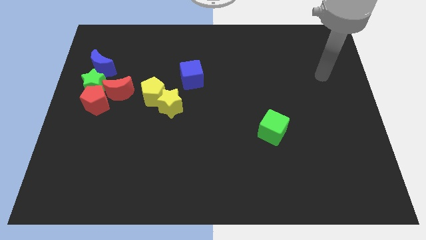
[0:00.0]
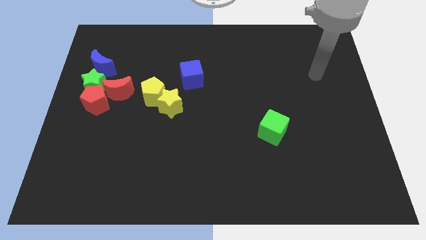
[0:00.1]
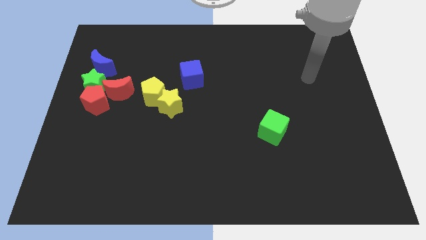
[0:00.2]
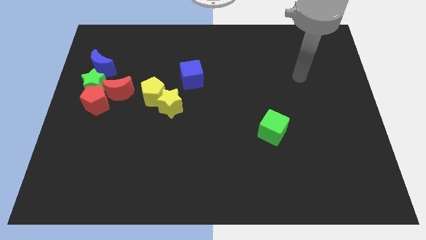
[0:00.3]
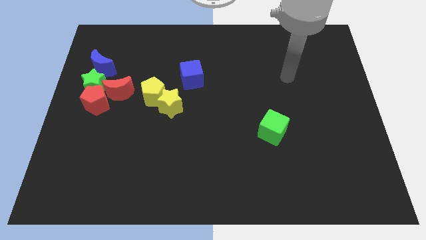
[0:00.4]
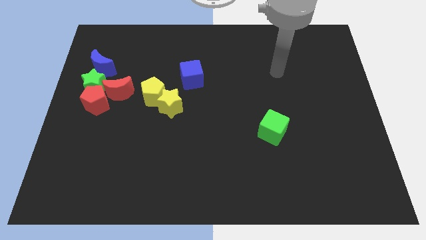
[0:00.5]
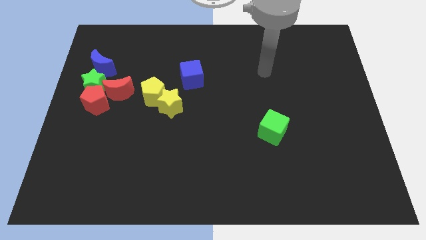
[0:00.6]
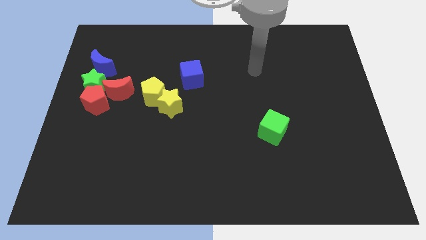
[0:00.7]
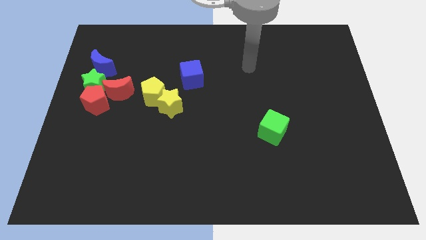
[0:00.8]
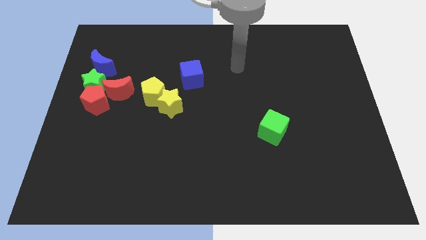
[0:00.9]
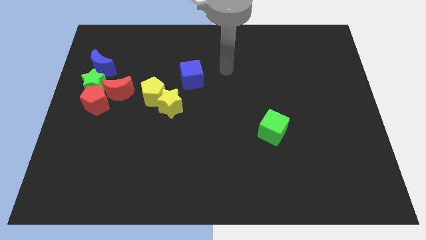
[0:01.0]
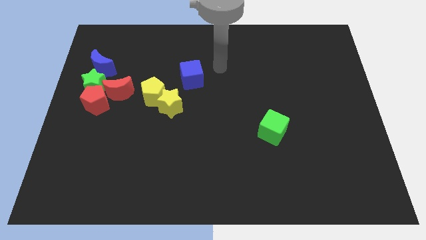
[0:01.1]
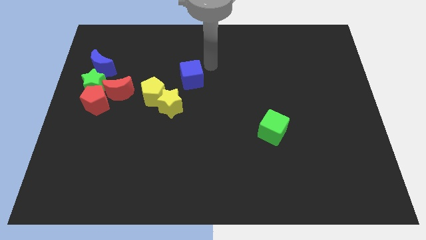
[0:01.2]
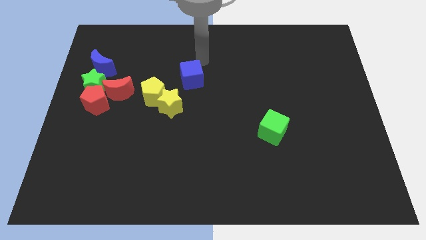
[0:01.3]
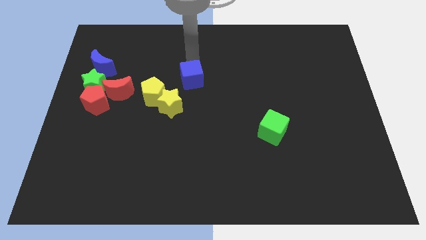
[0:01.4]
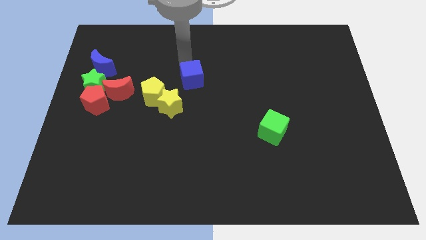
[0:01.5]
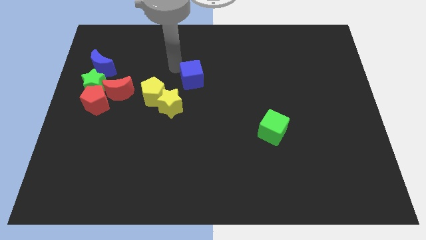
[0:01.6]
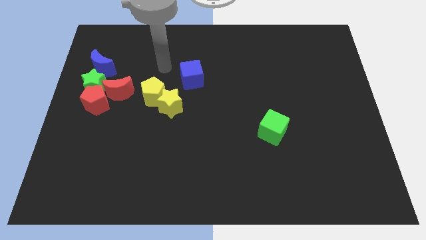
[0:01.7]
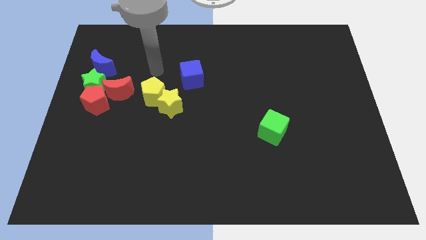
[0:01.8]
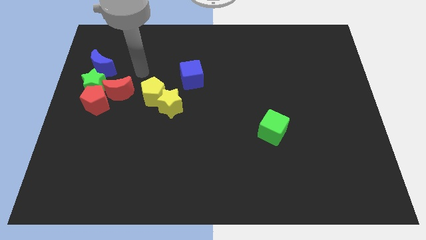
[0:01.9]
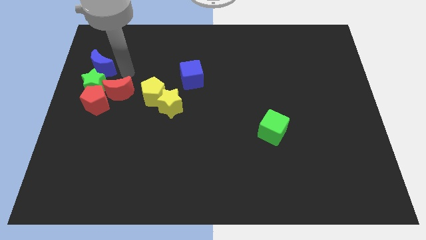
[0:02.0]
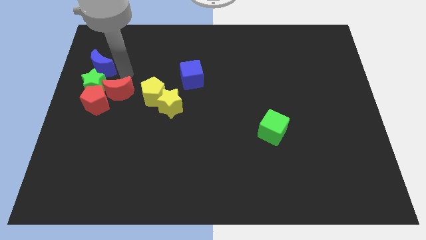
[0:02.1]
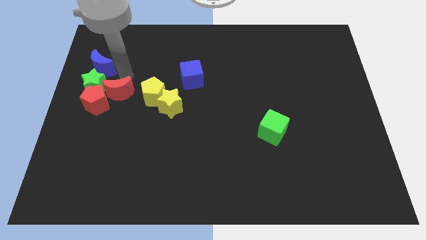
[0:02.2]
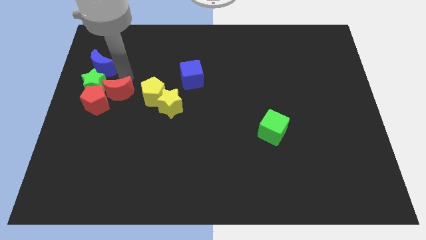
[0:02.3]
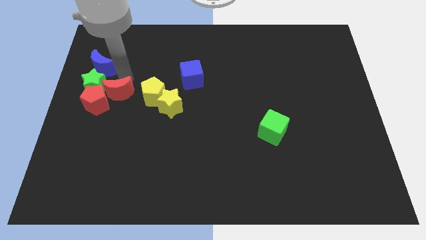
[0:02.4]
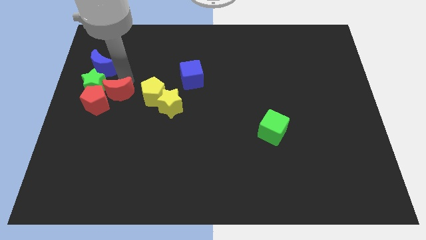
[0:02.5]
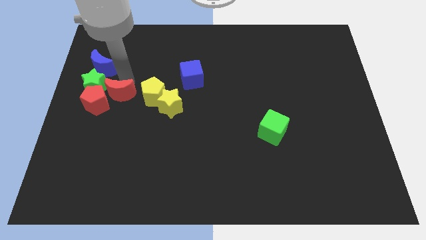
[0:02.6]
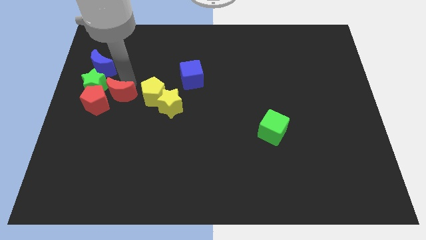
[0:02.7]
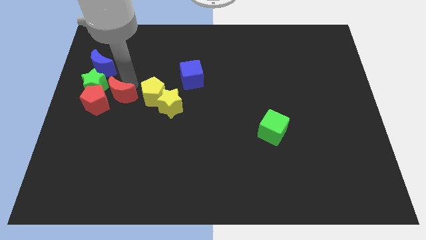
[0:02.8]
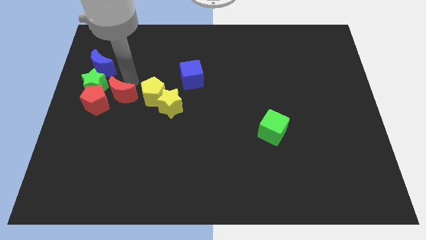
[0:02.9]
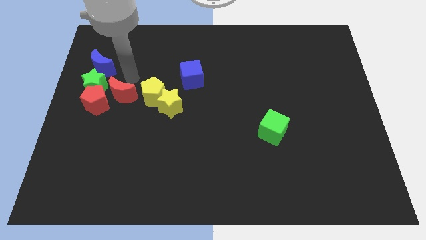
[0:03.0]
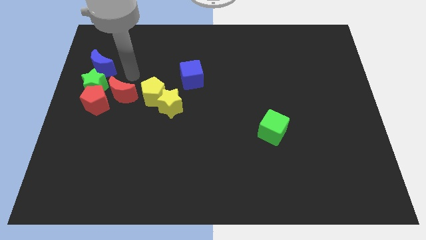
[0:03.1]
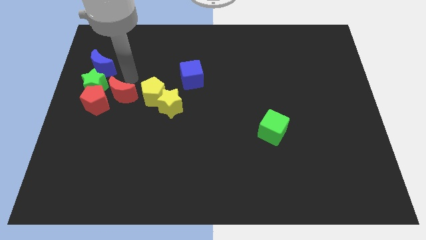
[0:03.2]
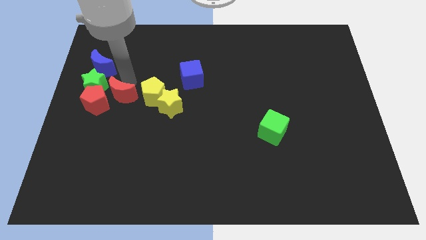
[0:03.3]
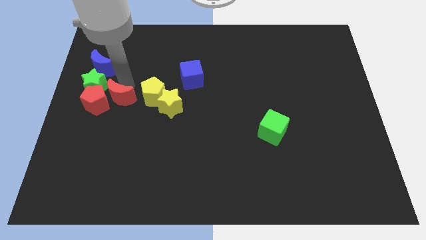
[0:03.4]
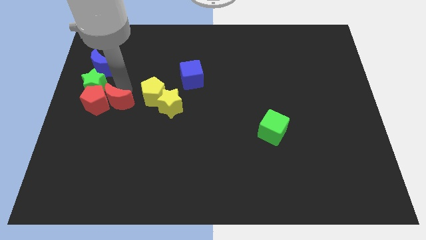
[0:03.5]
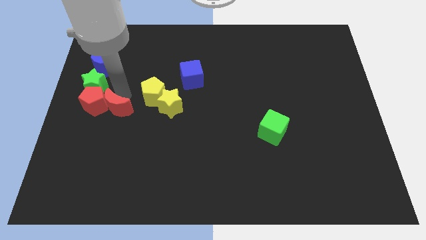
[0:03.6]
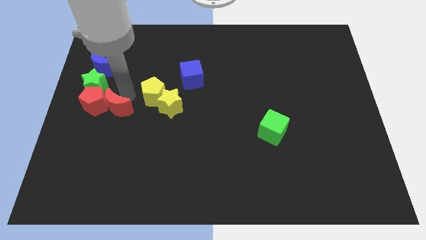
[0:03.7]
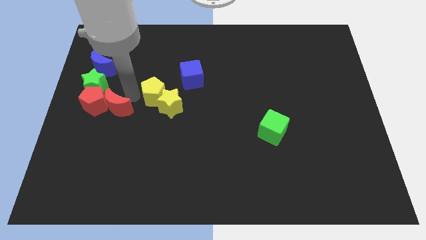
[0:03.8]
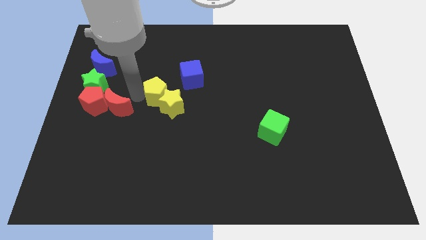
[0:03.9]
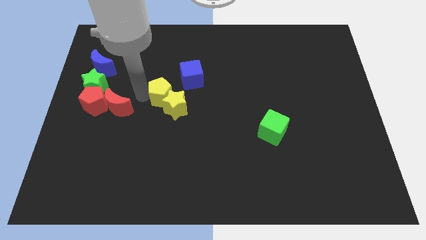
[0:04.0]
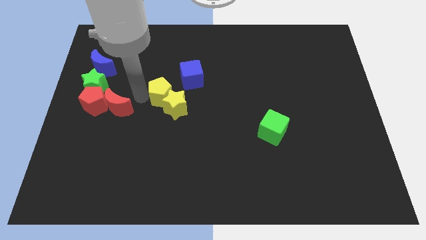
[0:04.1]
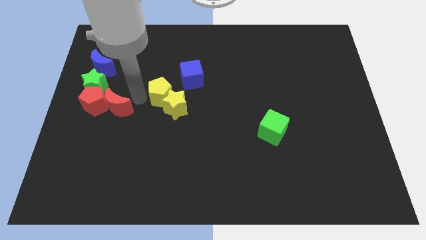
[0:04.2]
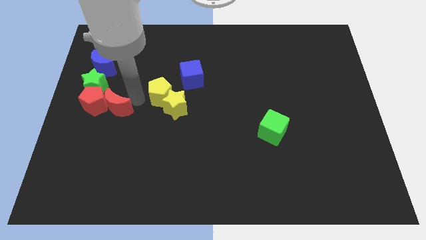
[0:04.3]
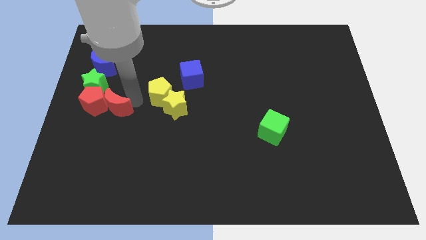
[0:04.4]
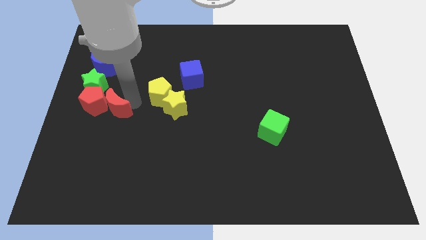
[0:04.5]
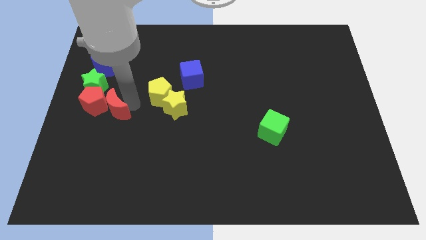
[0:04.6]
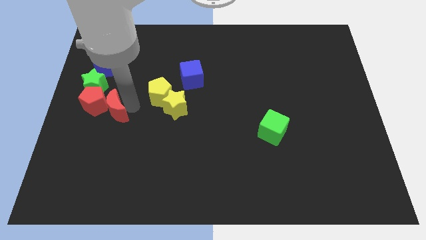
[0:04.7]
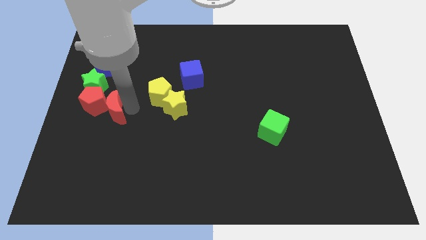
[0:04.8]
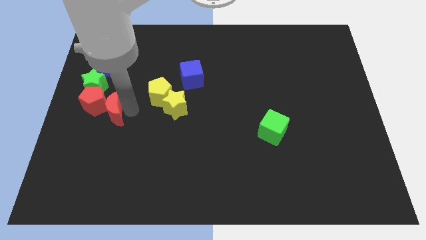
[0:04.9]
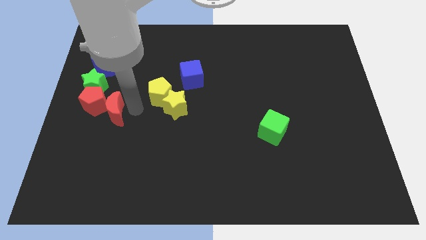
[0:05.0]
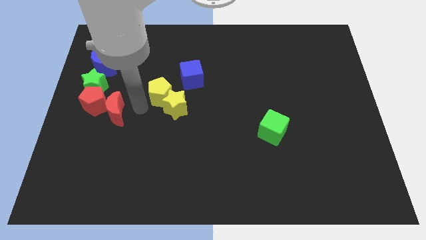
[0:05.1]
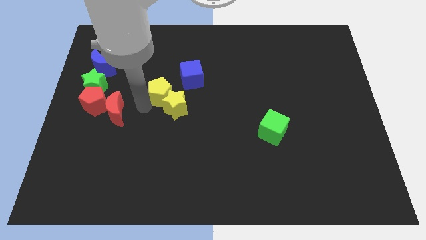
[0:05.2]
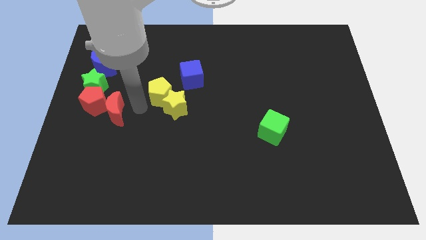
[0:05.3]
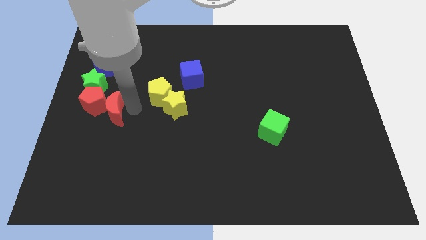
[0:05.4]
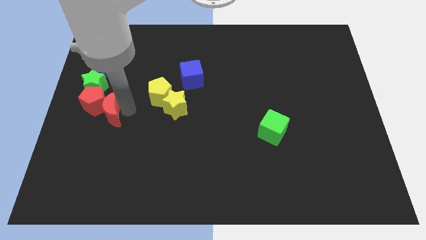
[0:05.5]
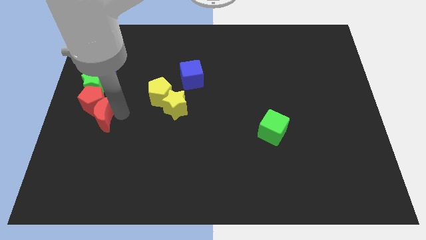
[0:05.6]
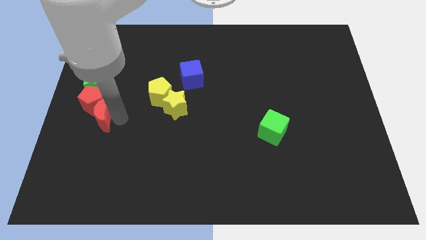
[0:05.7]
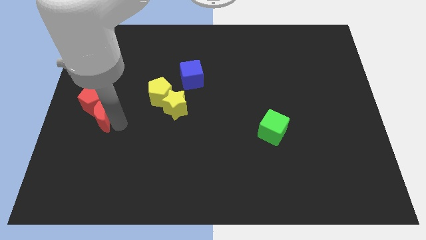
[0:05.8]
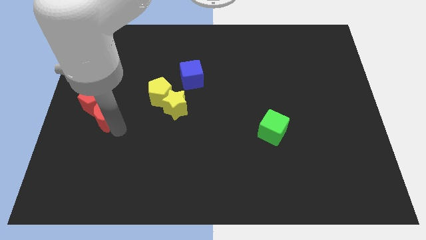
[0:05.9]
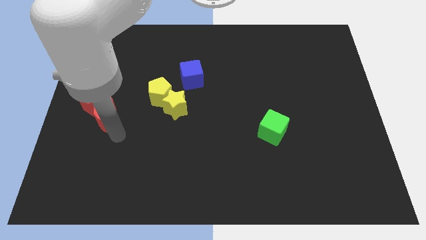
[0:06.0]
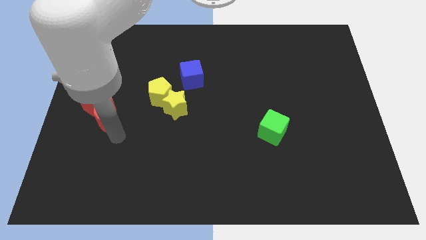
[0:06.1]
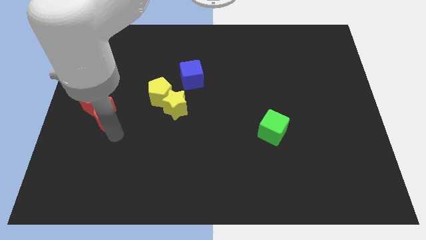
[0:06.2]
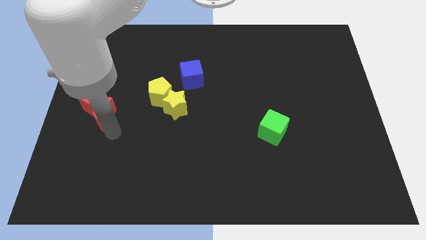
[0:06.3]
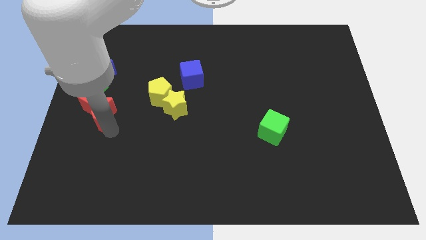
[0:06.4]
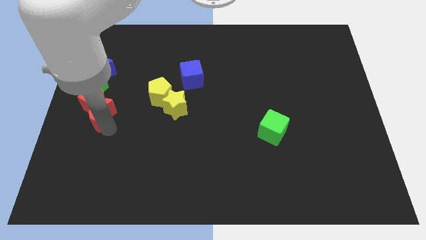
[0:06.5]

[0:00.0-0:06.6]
put the red moon to the bottom of the blue moon

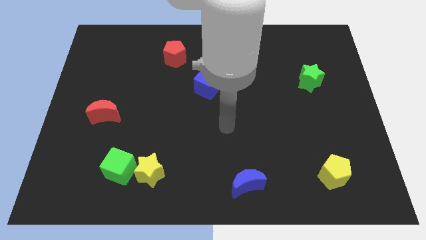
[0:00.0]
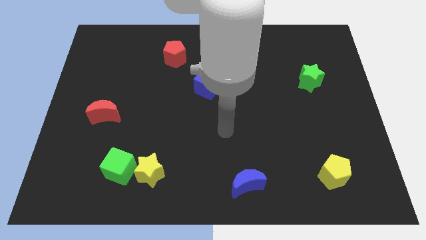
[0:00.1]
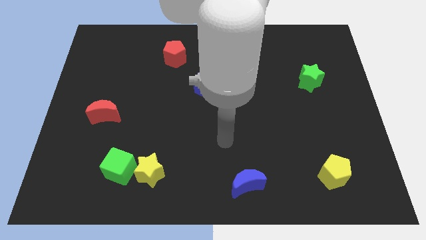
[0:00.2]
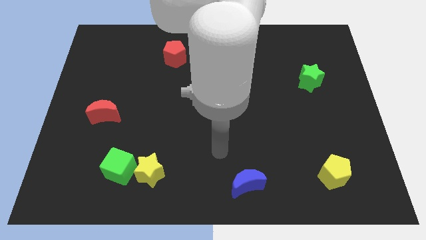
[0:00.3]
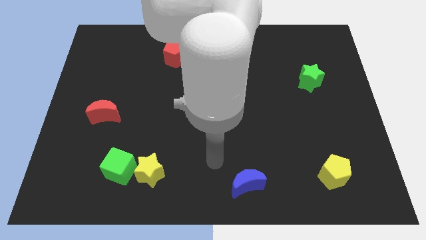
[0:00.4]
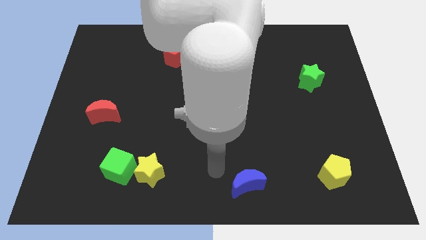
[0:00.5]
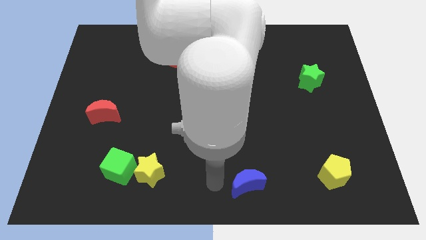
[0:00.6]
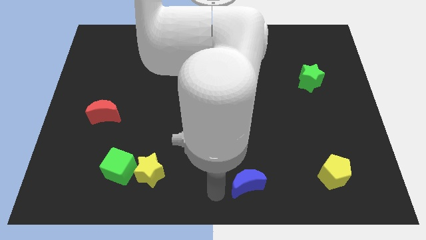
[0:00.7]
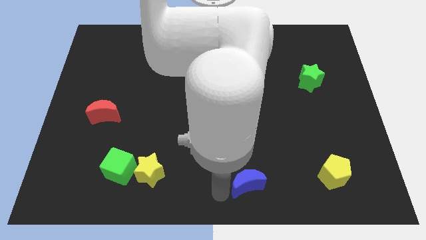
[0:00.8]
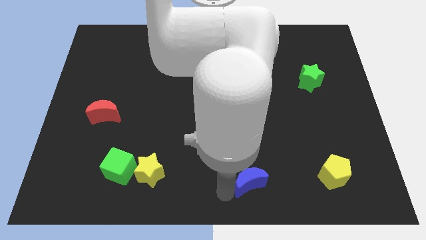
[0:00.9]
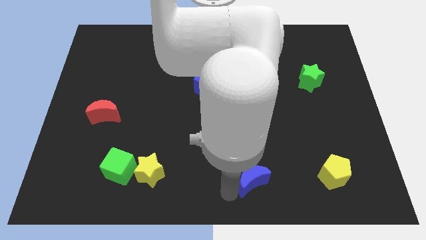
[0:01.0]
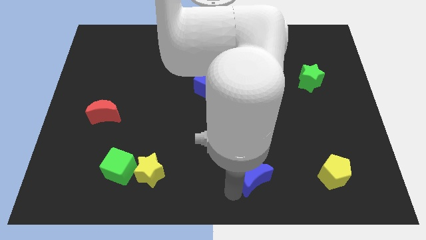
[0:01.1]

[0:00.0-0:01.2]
push the blue moon left of the yellow pentagon
